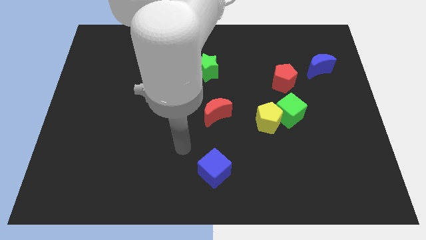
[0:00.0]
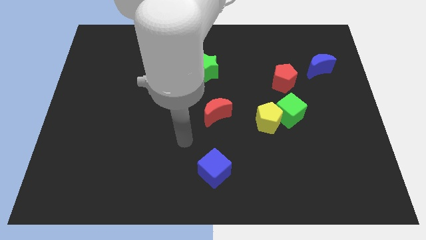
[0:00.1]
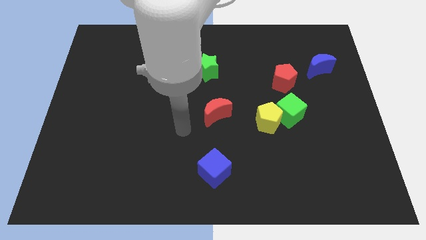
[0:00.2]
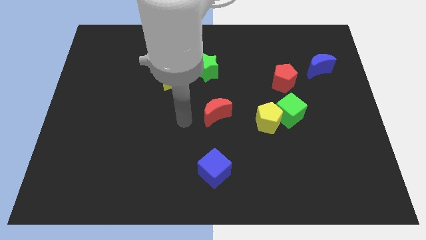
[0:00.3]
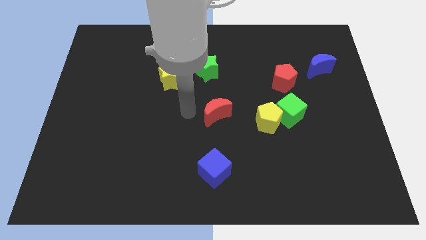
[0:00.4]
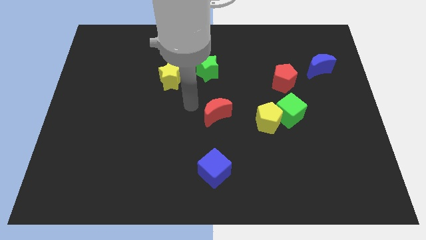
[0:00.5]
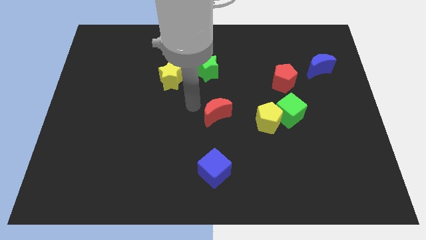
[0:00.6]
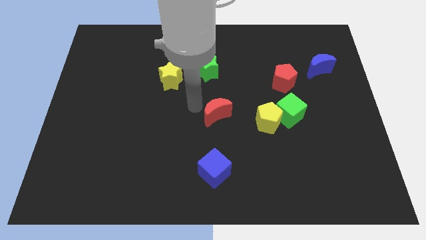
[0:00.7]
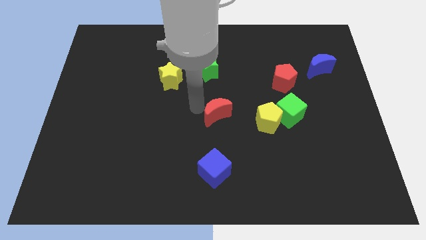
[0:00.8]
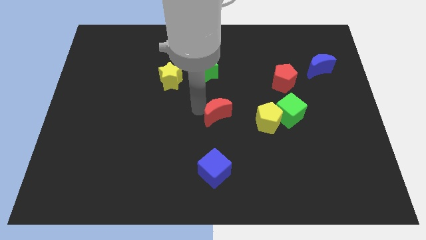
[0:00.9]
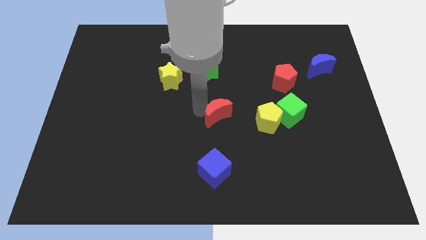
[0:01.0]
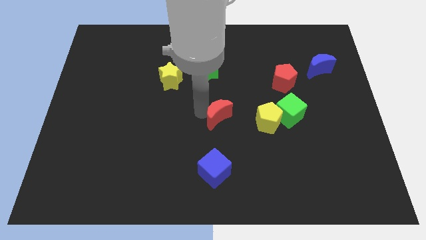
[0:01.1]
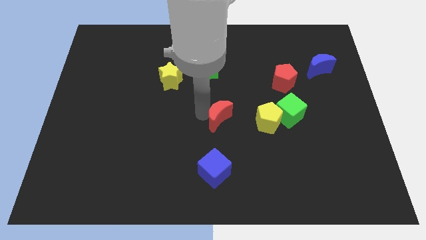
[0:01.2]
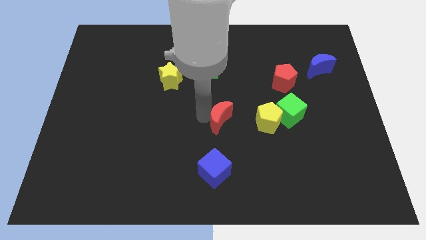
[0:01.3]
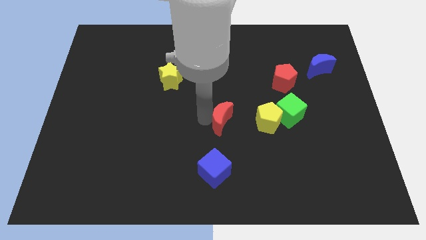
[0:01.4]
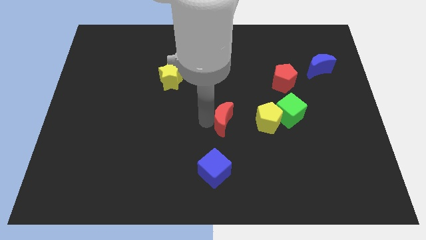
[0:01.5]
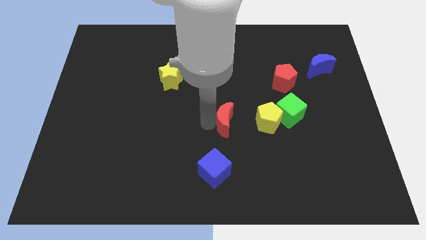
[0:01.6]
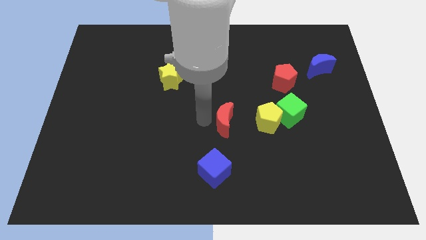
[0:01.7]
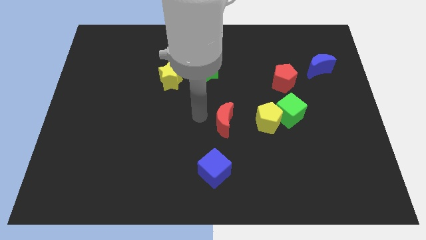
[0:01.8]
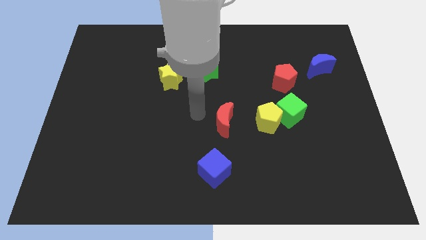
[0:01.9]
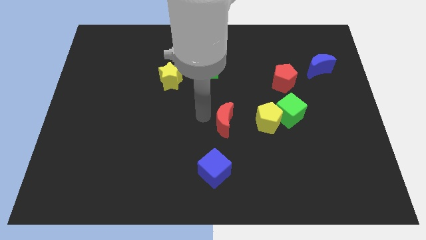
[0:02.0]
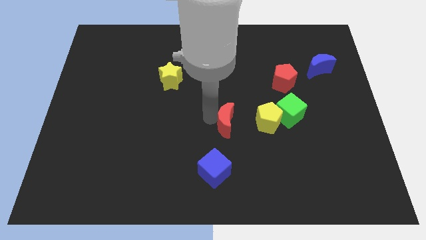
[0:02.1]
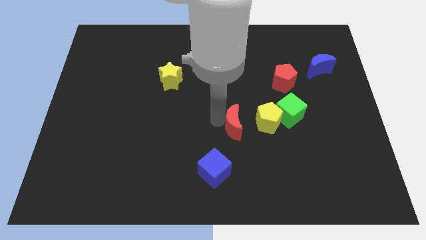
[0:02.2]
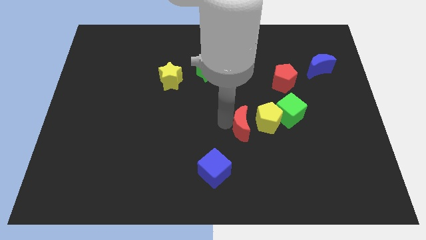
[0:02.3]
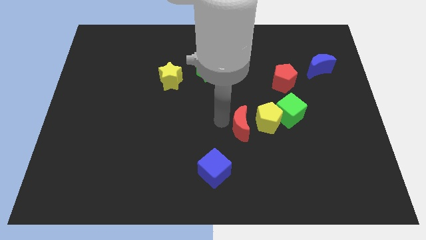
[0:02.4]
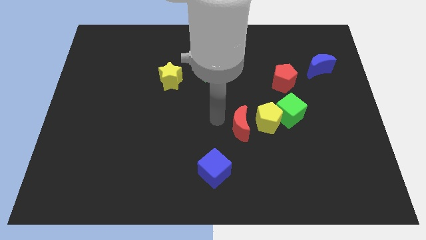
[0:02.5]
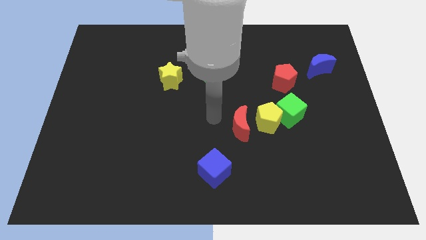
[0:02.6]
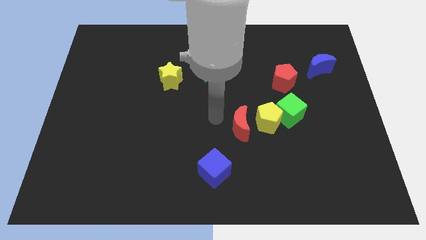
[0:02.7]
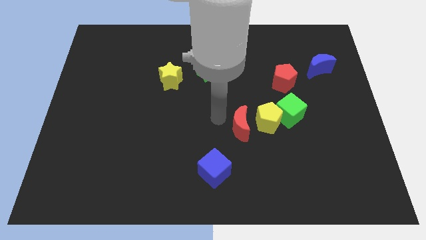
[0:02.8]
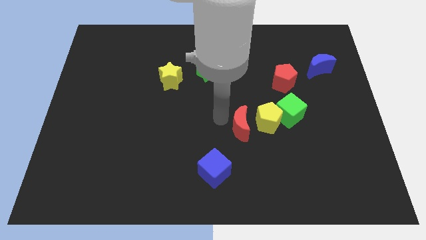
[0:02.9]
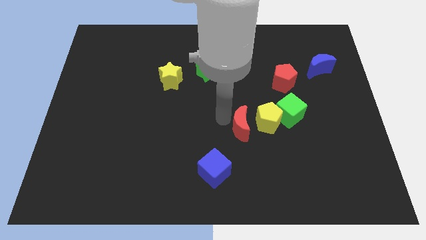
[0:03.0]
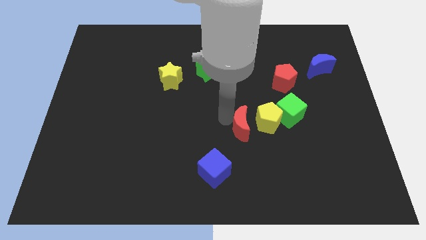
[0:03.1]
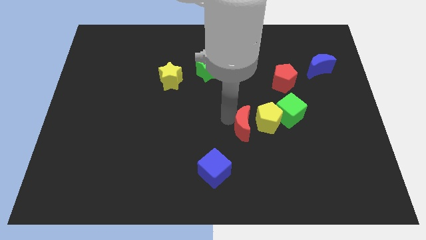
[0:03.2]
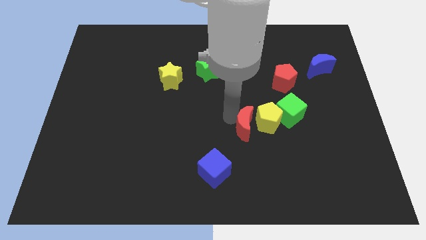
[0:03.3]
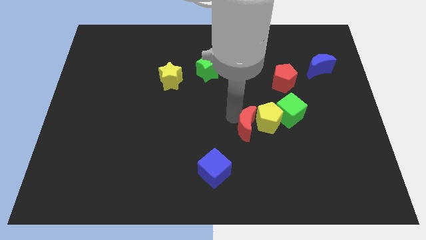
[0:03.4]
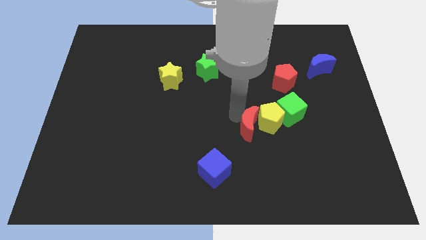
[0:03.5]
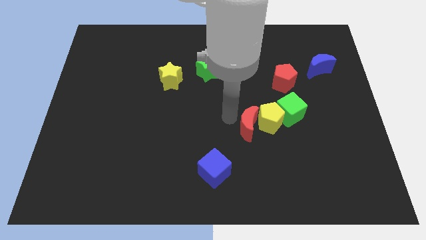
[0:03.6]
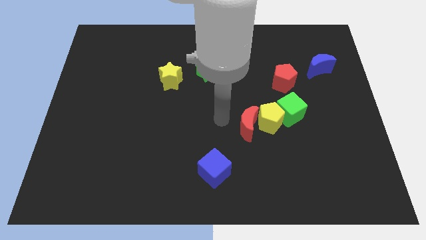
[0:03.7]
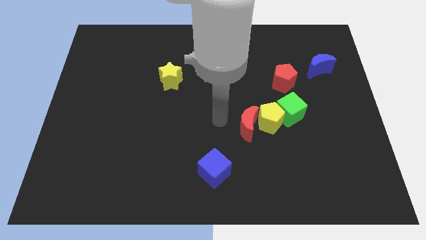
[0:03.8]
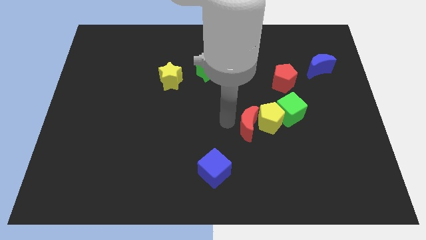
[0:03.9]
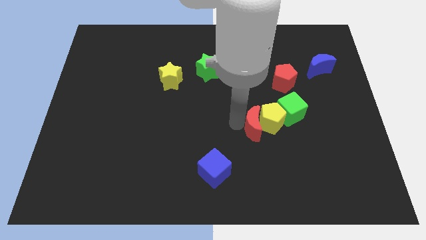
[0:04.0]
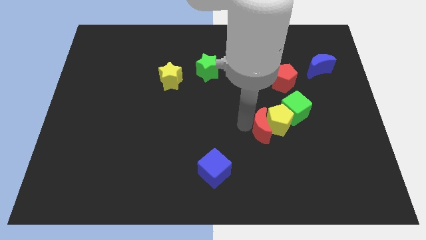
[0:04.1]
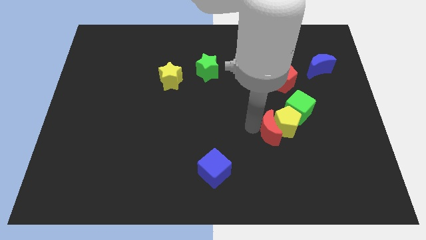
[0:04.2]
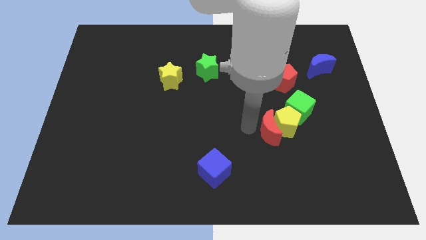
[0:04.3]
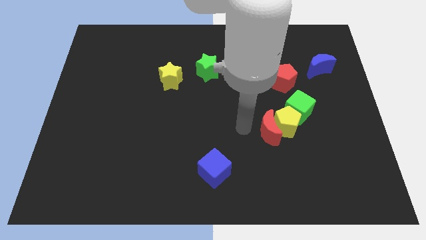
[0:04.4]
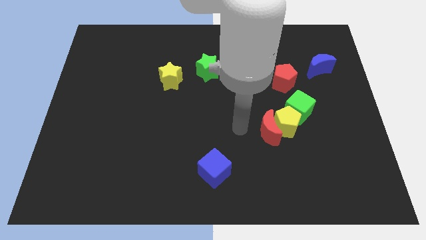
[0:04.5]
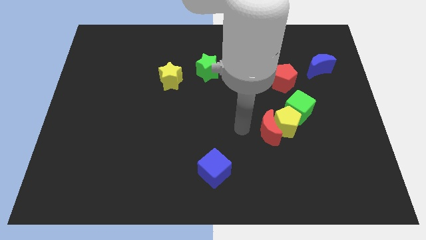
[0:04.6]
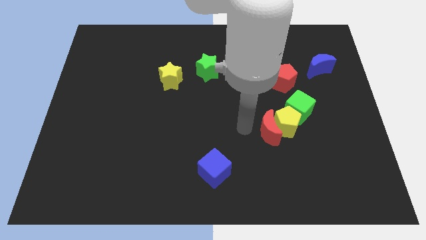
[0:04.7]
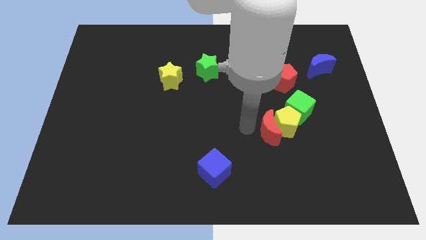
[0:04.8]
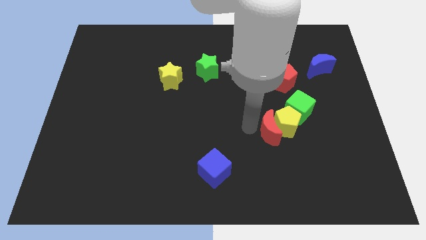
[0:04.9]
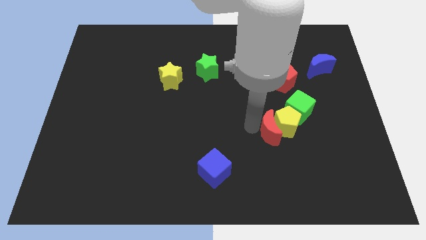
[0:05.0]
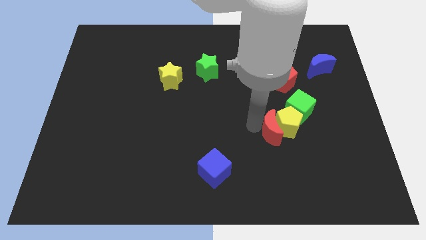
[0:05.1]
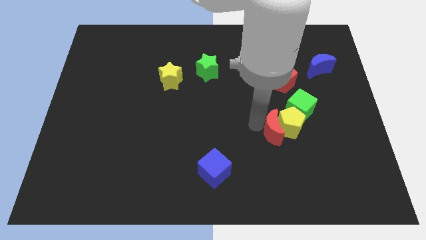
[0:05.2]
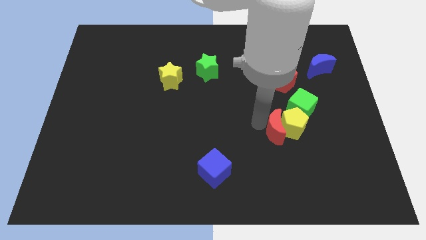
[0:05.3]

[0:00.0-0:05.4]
put the red moon to the bottom side of the red pentagon

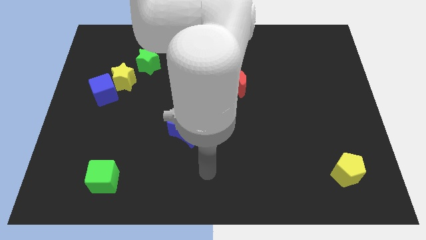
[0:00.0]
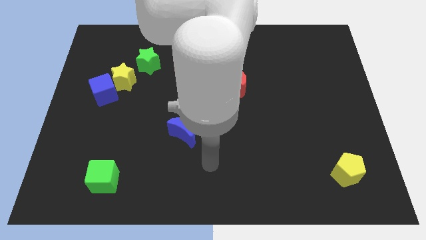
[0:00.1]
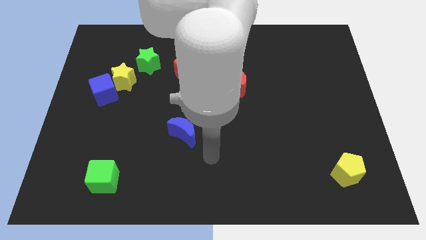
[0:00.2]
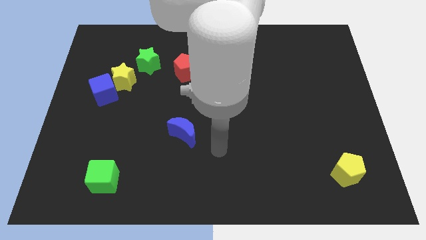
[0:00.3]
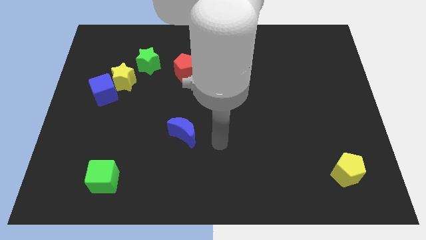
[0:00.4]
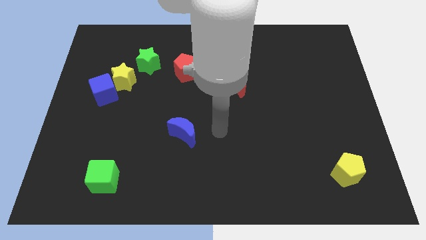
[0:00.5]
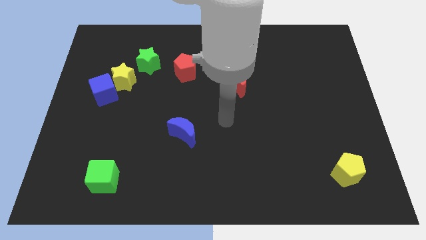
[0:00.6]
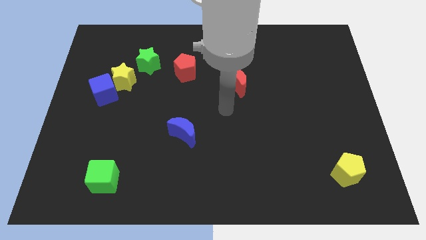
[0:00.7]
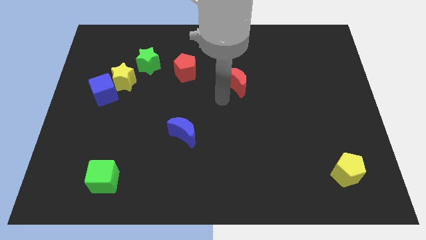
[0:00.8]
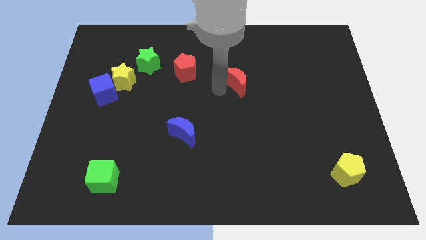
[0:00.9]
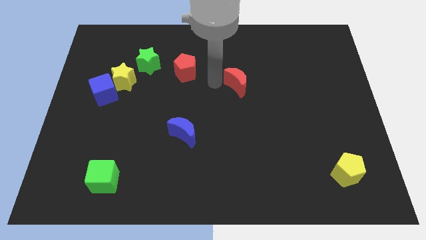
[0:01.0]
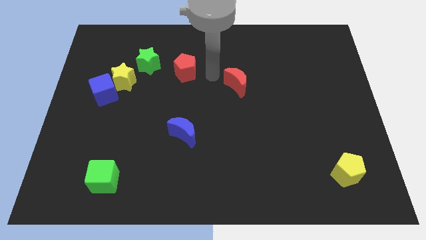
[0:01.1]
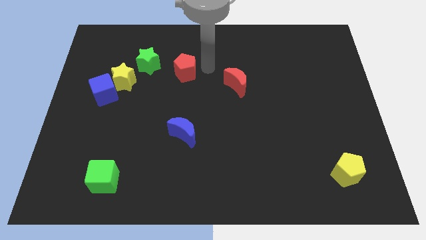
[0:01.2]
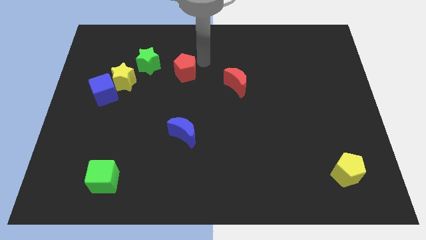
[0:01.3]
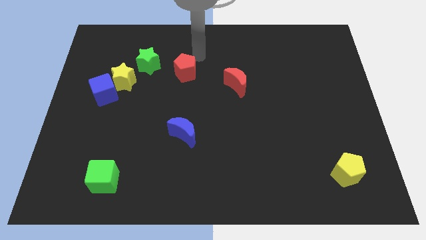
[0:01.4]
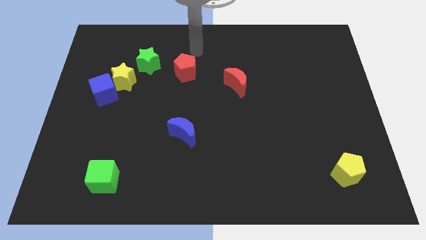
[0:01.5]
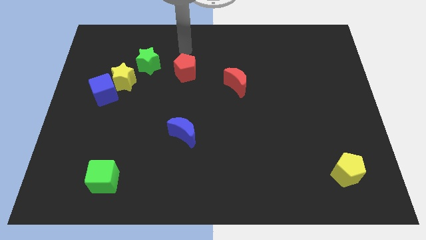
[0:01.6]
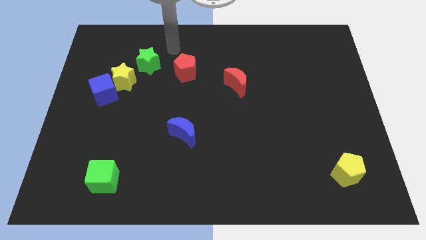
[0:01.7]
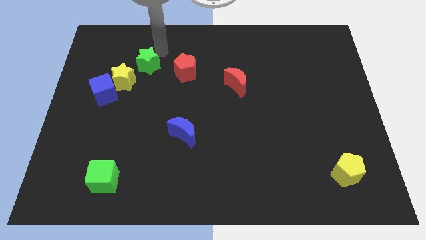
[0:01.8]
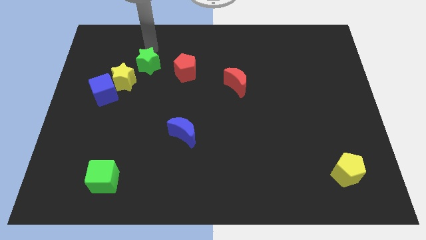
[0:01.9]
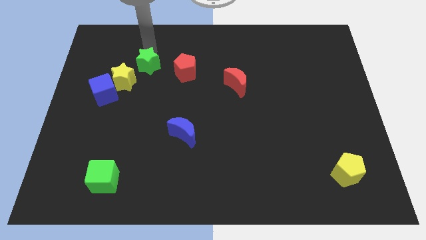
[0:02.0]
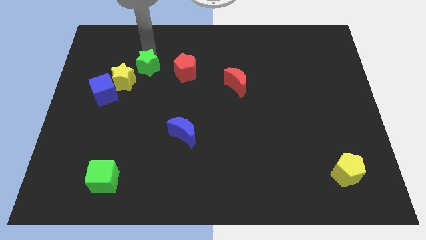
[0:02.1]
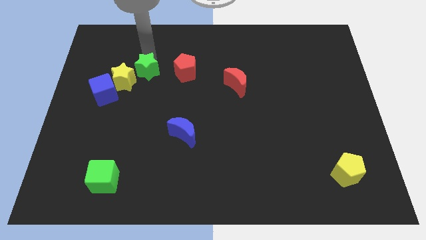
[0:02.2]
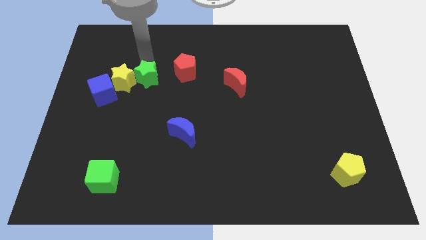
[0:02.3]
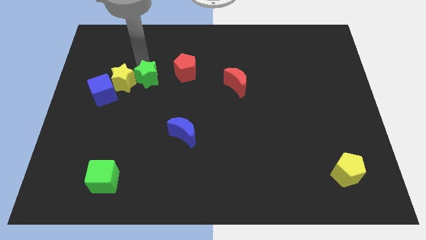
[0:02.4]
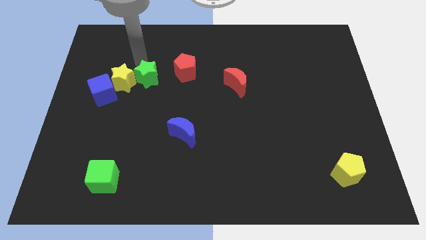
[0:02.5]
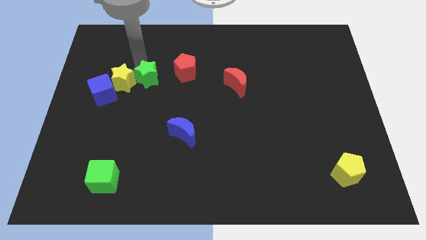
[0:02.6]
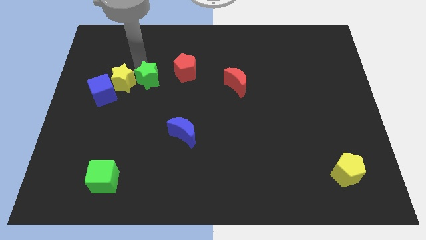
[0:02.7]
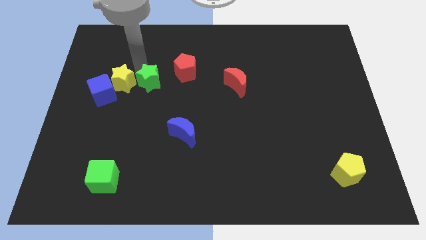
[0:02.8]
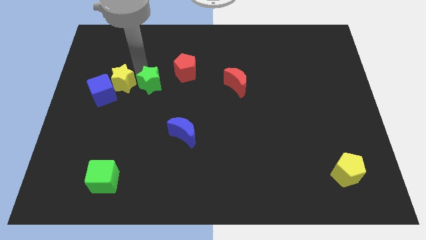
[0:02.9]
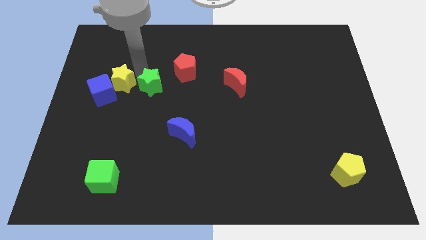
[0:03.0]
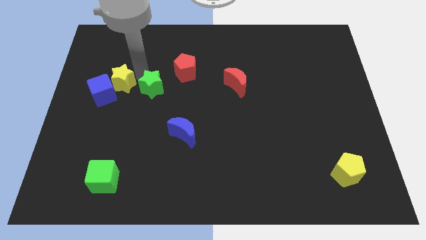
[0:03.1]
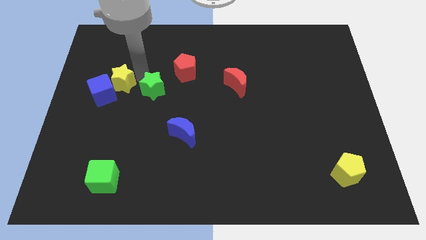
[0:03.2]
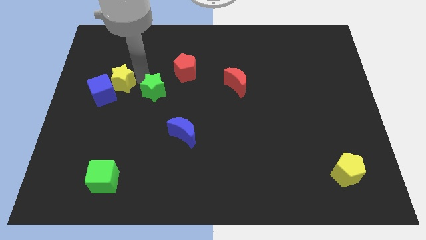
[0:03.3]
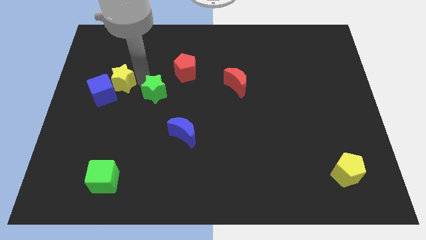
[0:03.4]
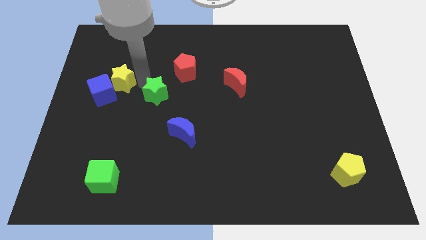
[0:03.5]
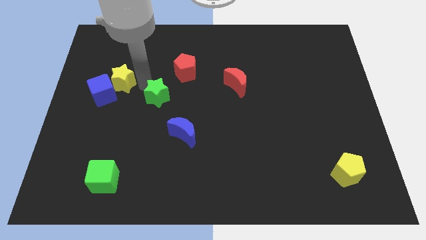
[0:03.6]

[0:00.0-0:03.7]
move the green star to the top left of the blue moon
